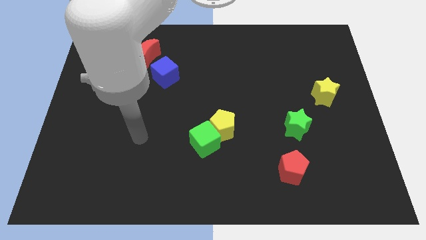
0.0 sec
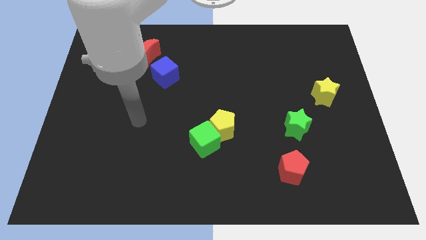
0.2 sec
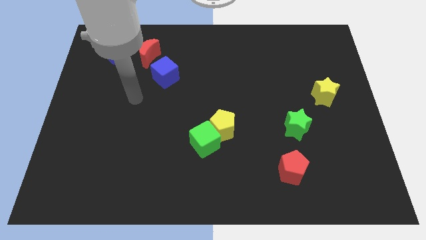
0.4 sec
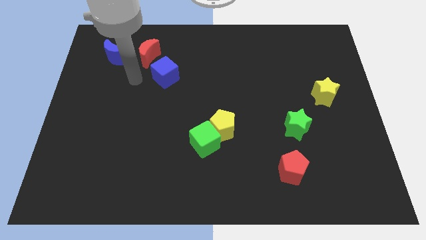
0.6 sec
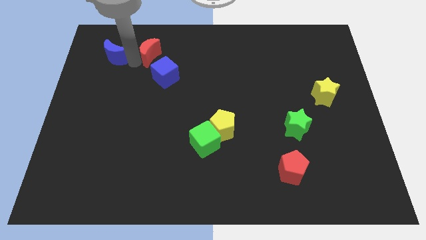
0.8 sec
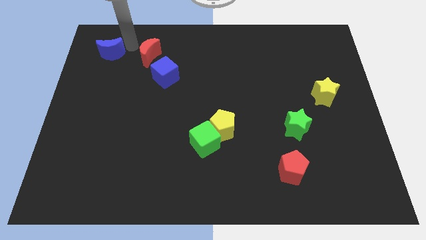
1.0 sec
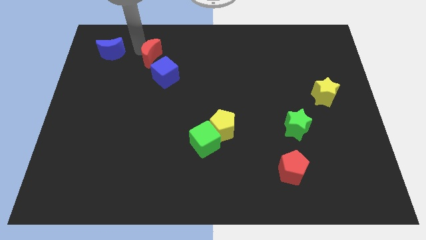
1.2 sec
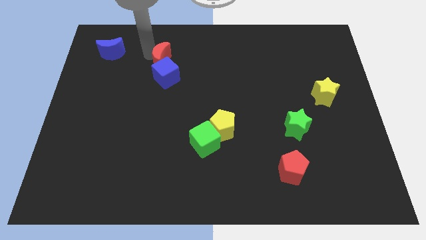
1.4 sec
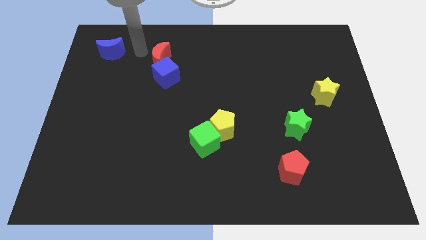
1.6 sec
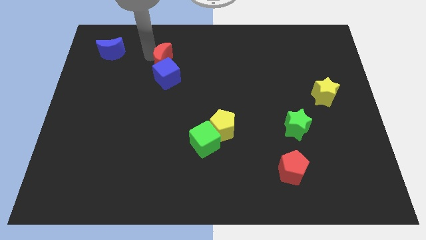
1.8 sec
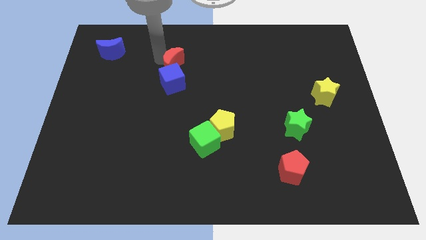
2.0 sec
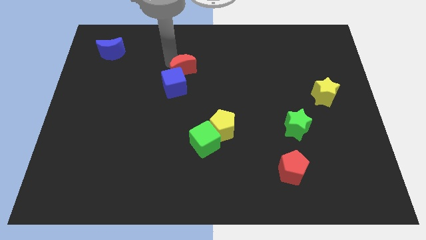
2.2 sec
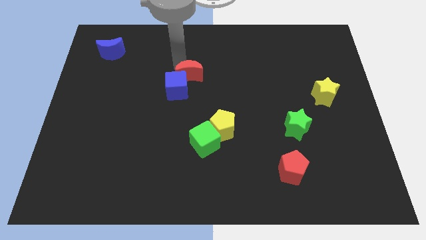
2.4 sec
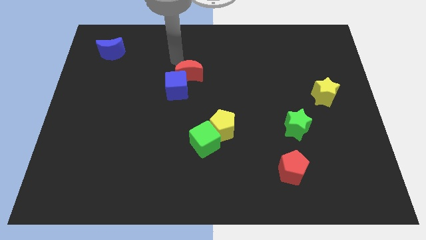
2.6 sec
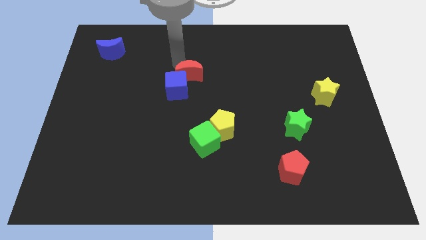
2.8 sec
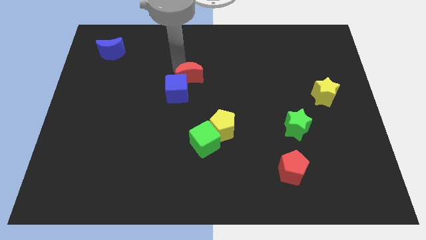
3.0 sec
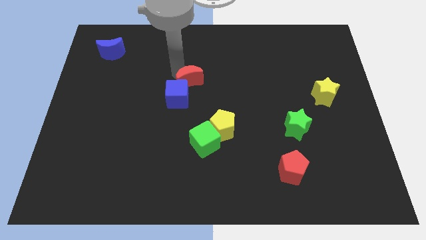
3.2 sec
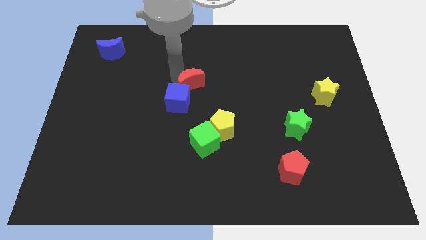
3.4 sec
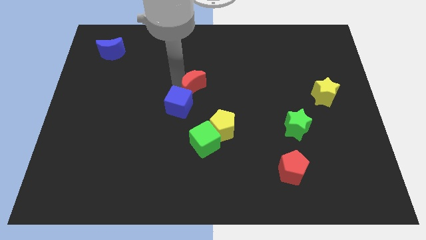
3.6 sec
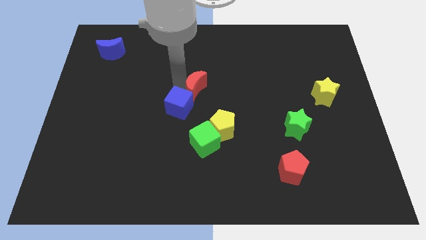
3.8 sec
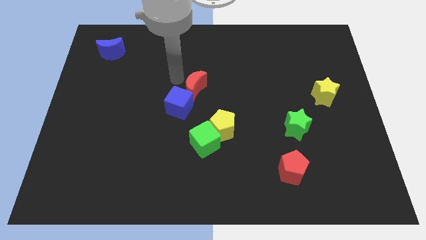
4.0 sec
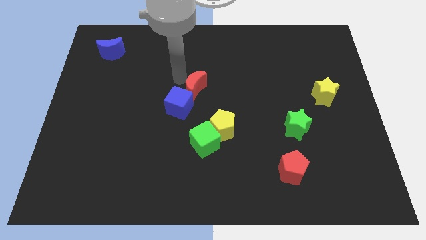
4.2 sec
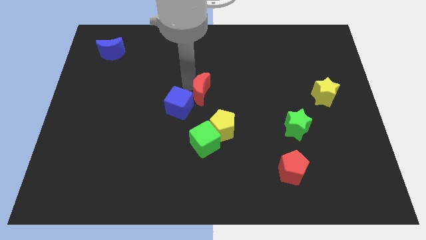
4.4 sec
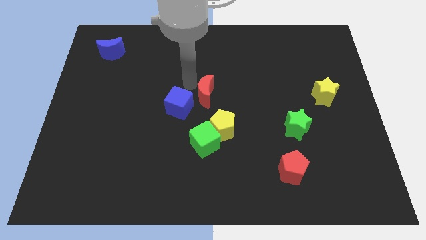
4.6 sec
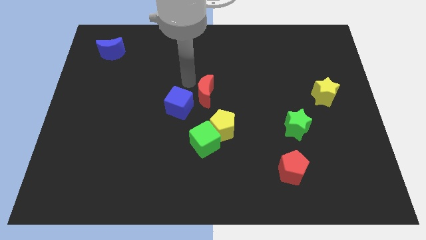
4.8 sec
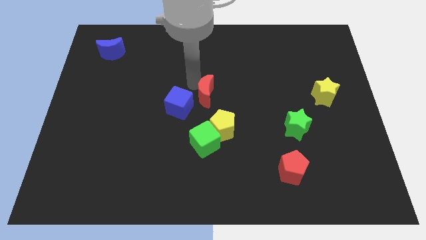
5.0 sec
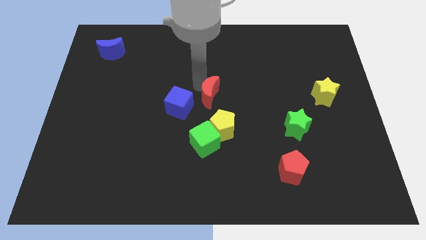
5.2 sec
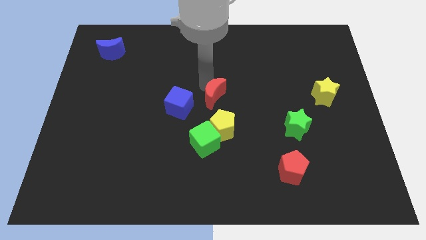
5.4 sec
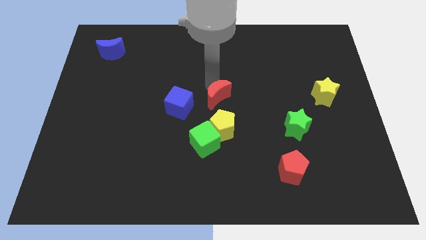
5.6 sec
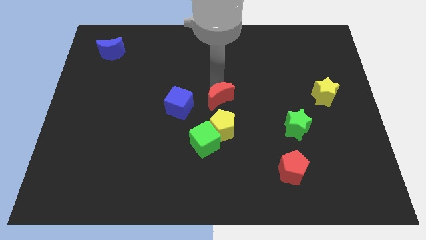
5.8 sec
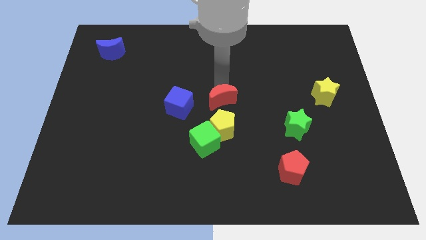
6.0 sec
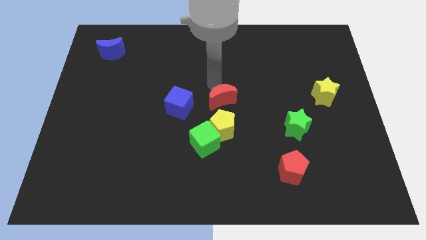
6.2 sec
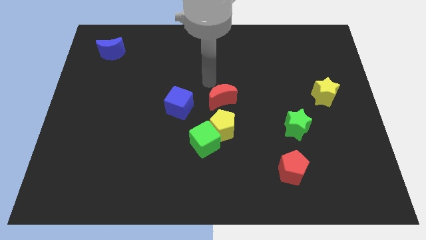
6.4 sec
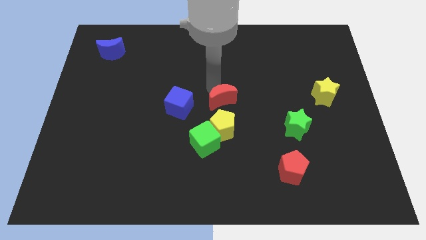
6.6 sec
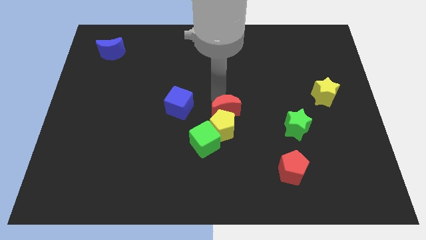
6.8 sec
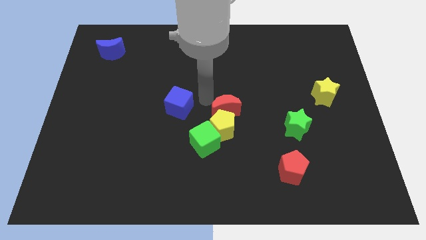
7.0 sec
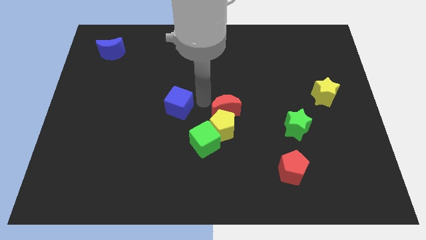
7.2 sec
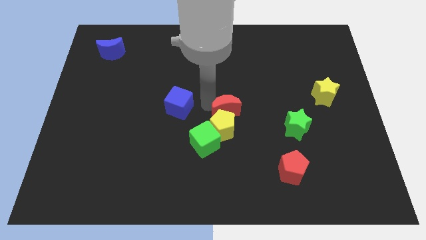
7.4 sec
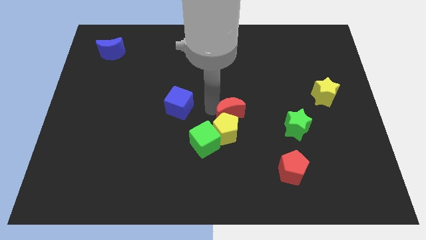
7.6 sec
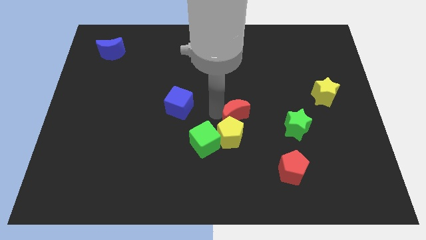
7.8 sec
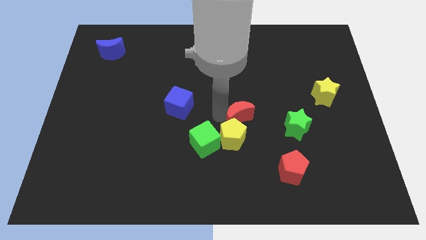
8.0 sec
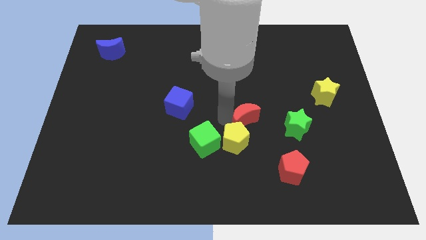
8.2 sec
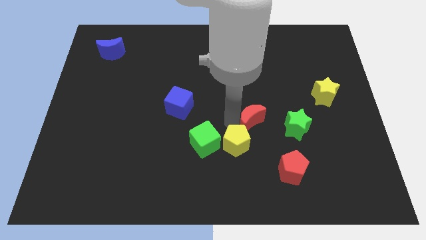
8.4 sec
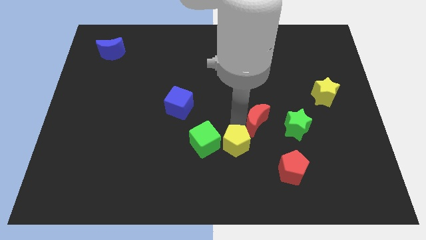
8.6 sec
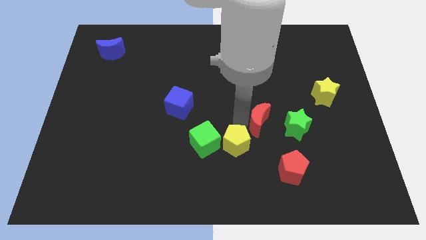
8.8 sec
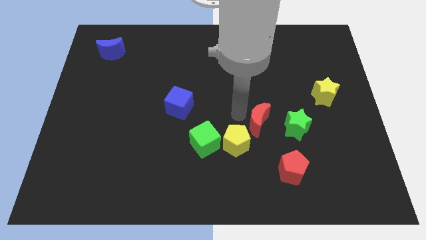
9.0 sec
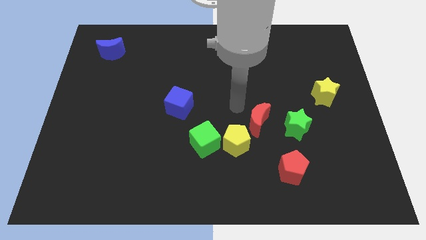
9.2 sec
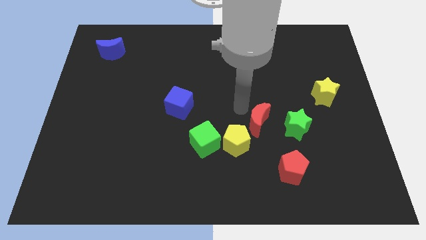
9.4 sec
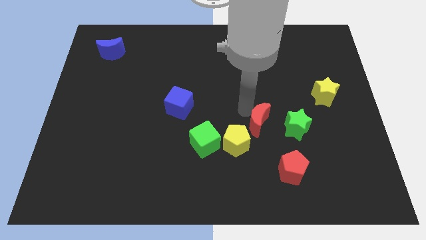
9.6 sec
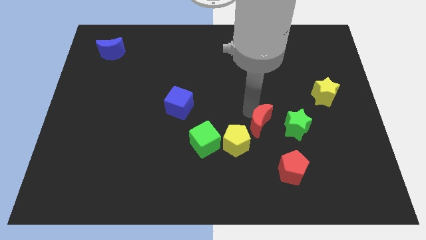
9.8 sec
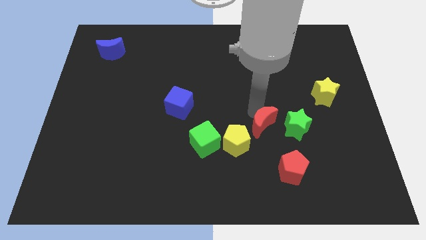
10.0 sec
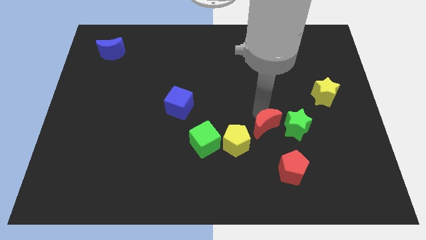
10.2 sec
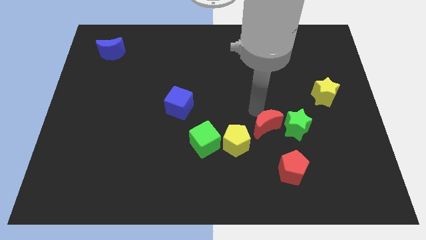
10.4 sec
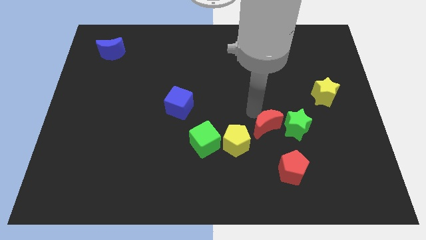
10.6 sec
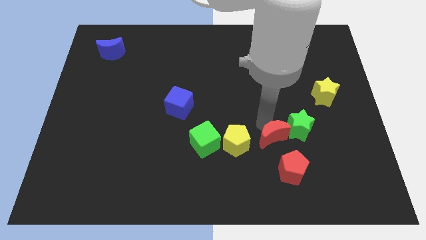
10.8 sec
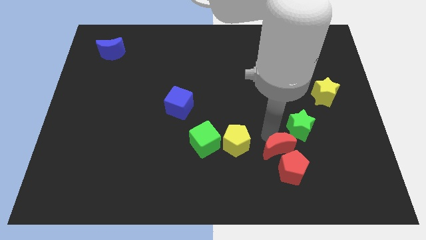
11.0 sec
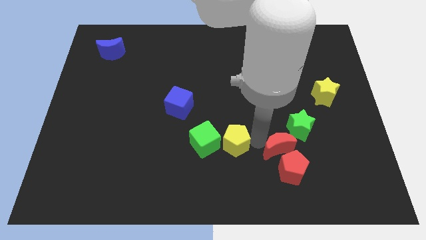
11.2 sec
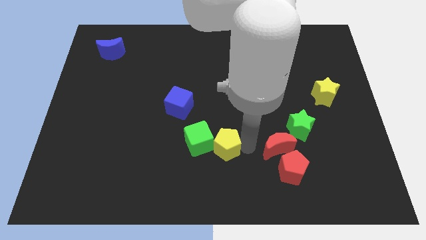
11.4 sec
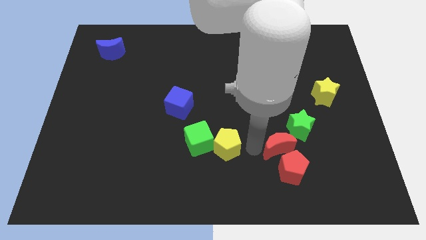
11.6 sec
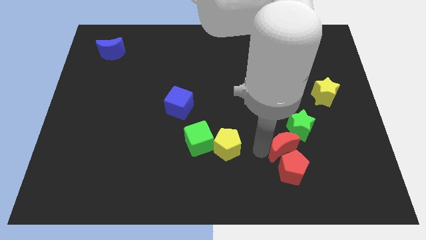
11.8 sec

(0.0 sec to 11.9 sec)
push the red moon to the top right side of the red pentagon

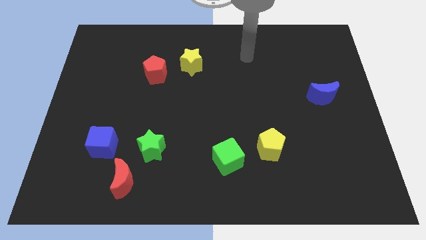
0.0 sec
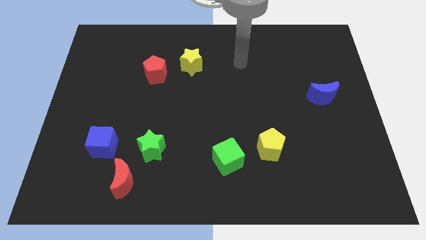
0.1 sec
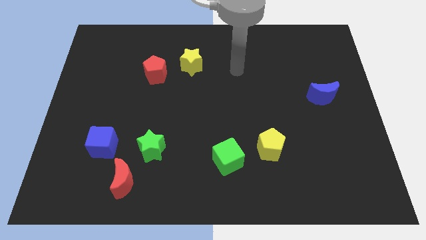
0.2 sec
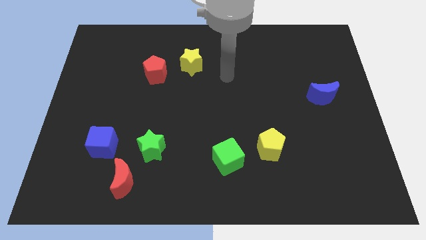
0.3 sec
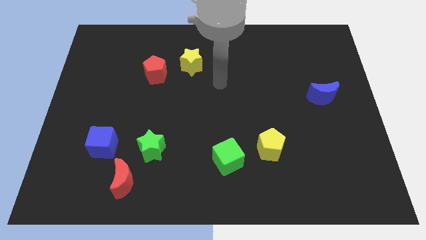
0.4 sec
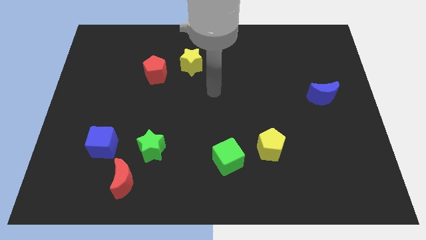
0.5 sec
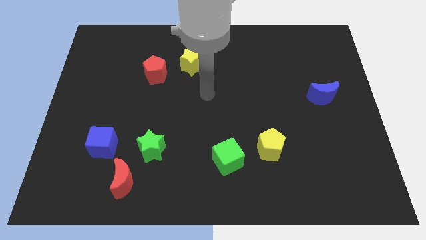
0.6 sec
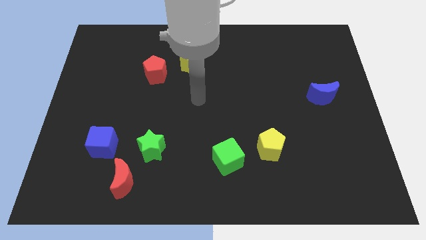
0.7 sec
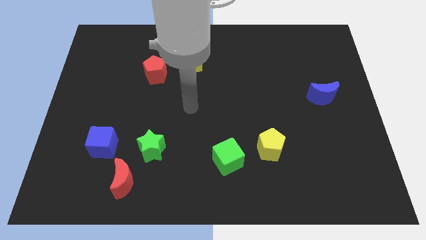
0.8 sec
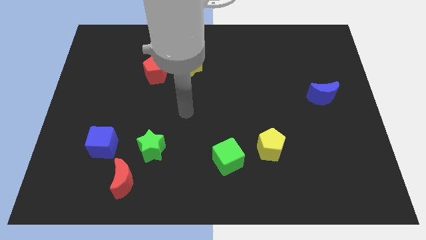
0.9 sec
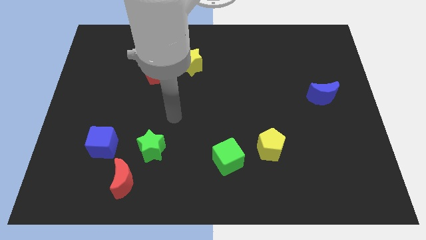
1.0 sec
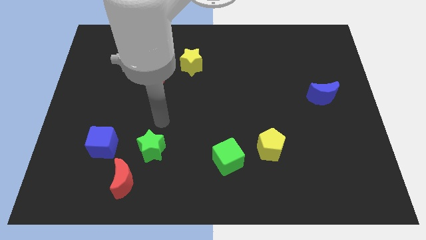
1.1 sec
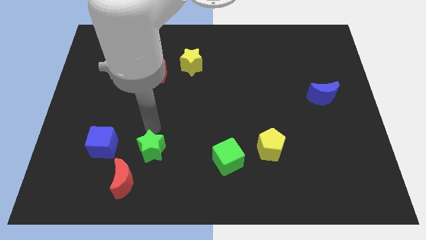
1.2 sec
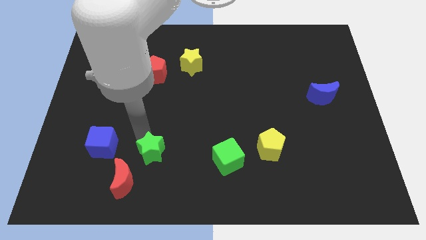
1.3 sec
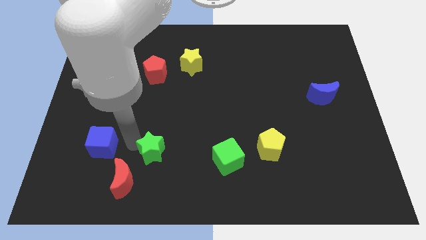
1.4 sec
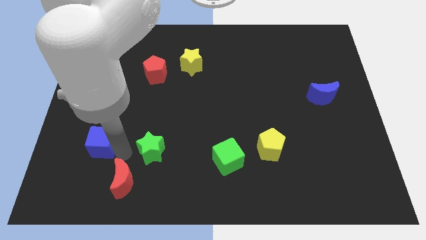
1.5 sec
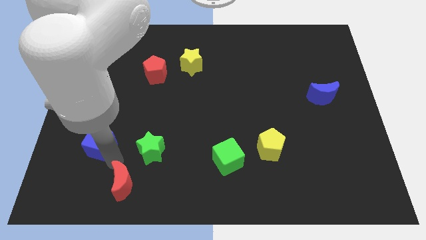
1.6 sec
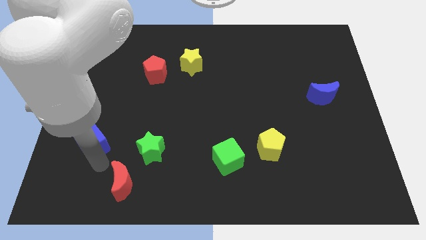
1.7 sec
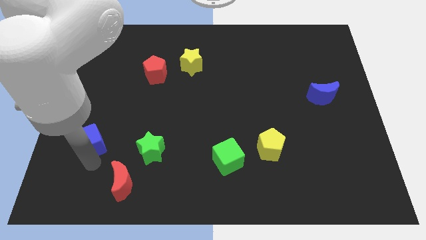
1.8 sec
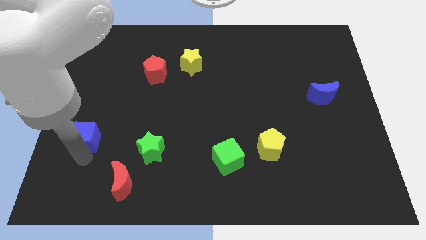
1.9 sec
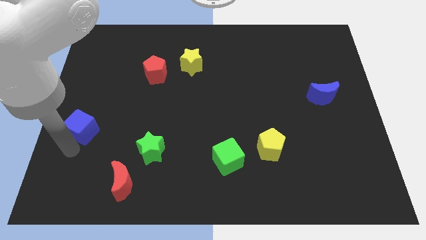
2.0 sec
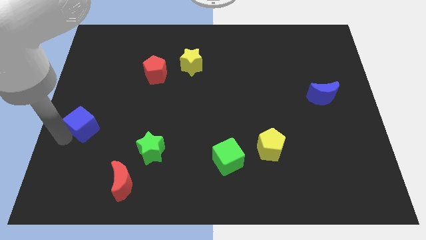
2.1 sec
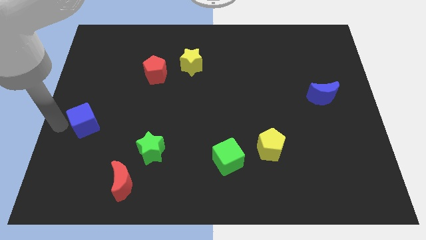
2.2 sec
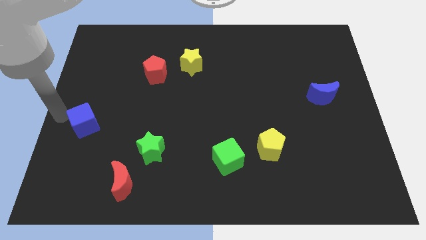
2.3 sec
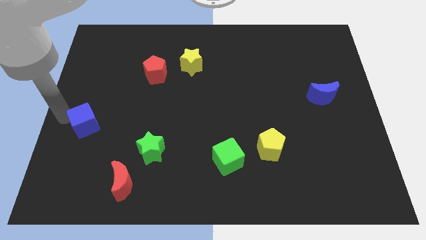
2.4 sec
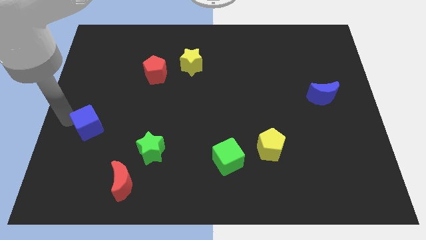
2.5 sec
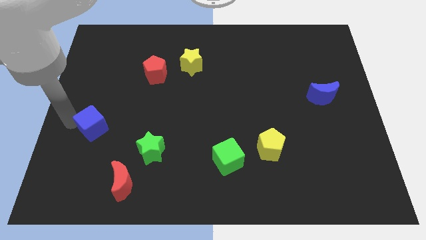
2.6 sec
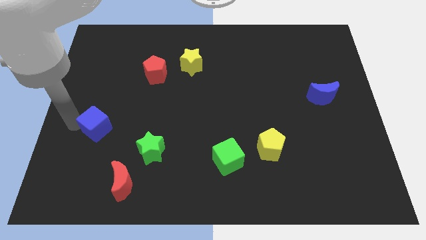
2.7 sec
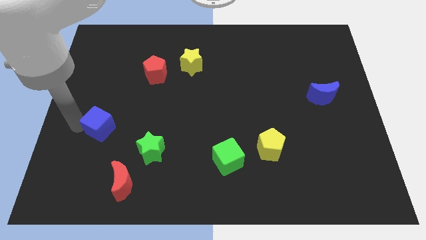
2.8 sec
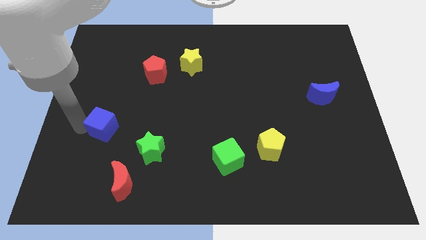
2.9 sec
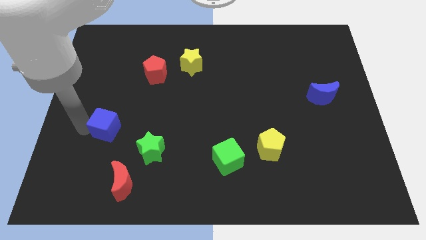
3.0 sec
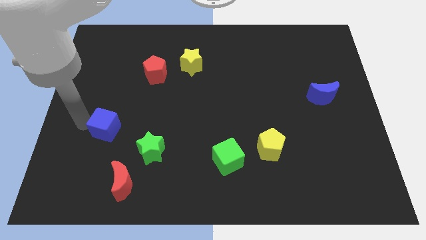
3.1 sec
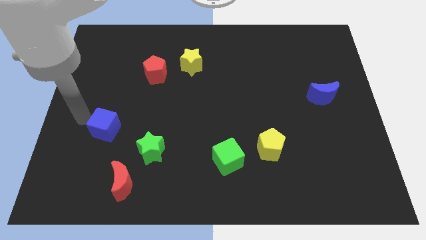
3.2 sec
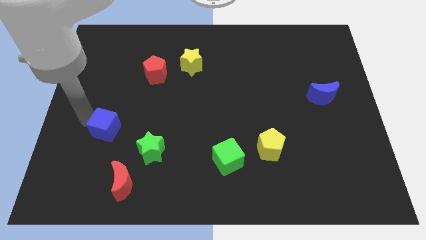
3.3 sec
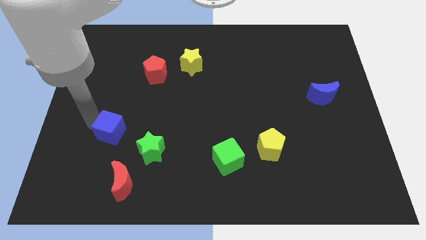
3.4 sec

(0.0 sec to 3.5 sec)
push the blue cube above the red moon
